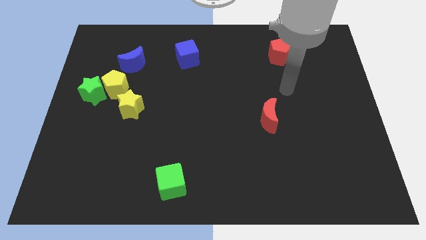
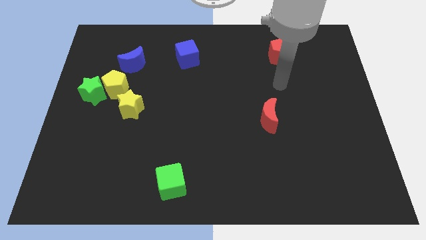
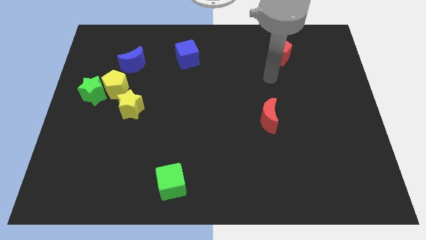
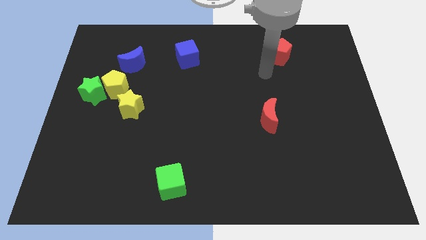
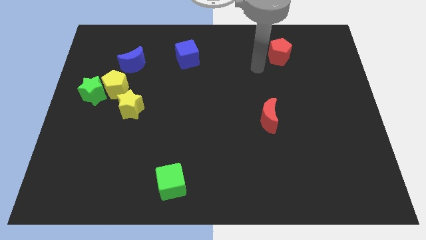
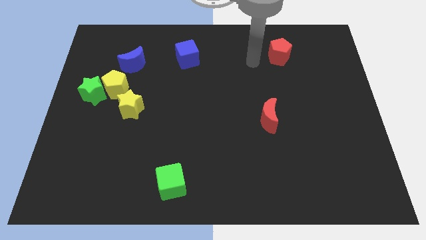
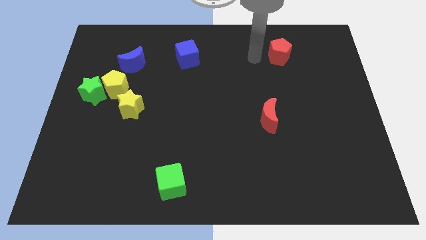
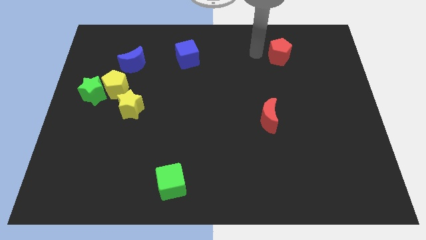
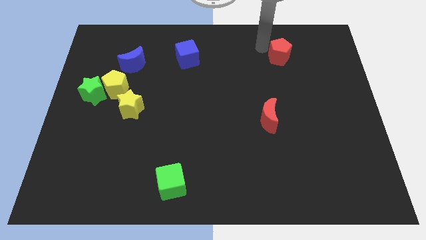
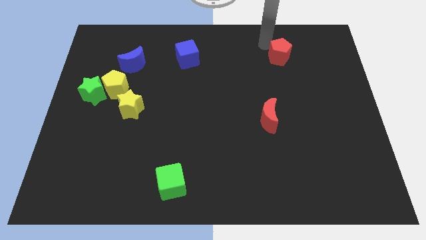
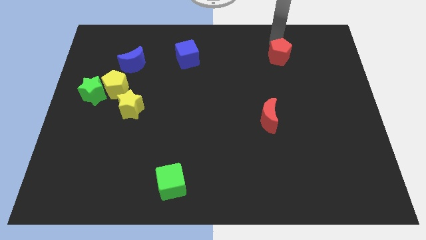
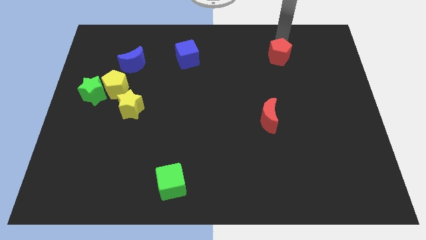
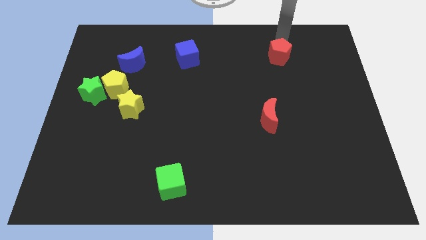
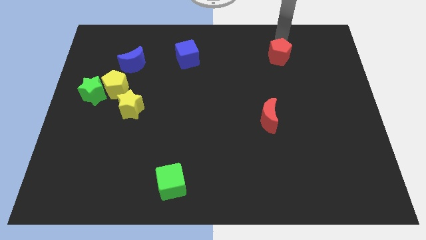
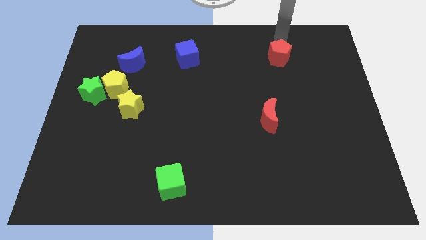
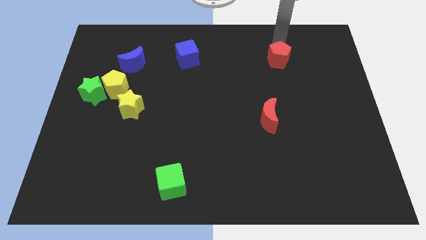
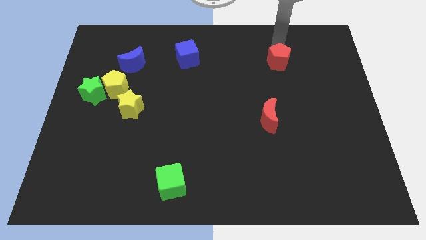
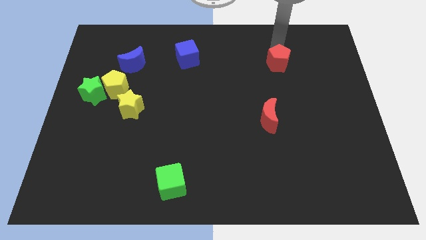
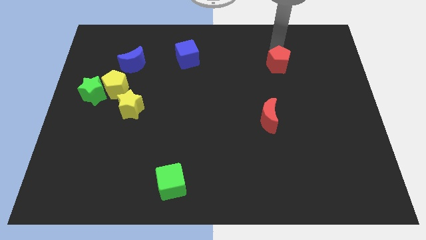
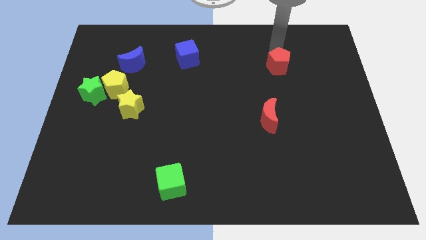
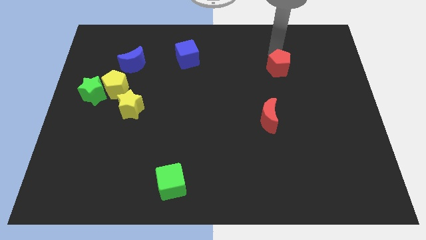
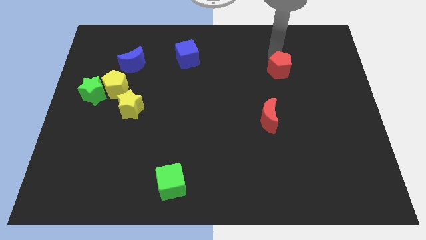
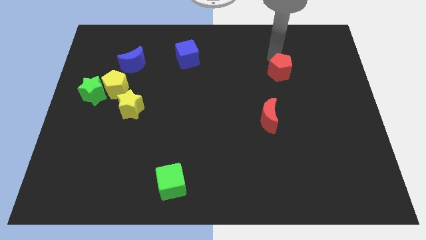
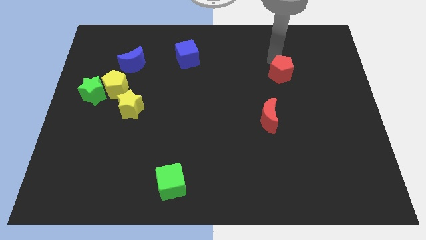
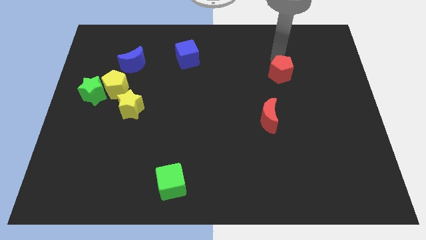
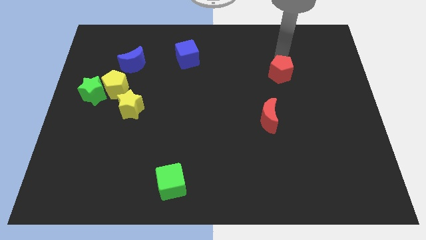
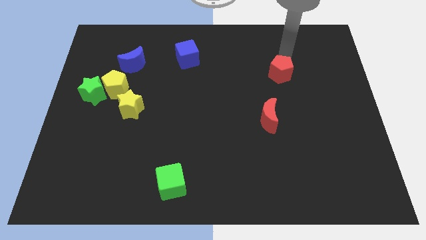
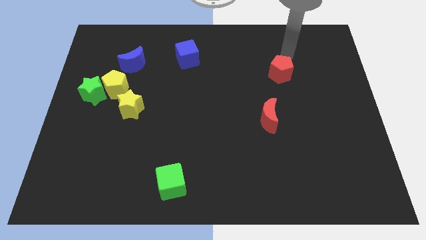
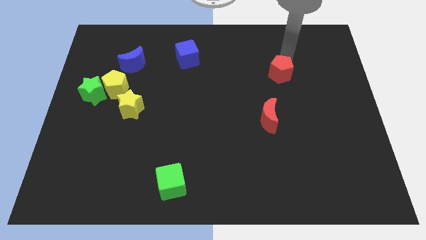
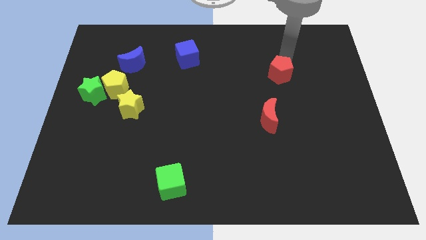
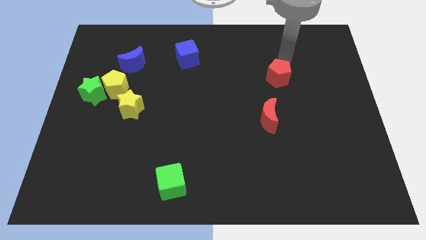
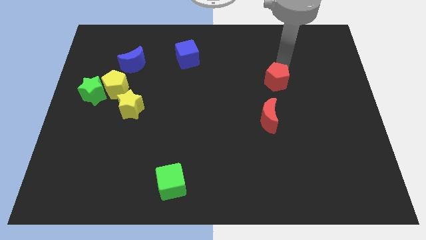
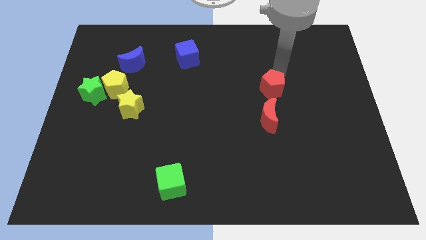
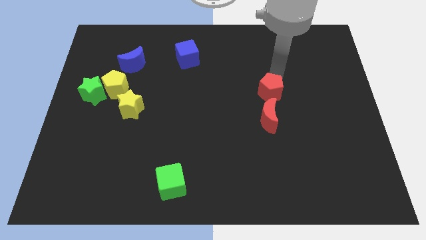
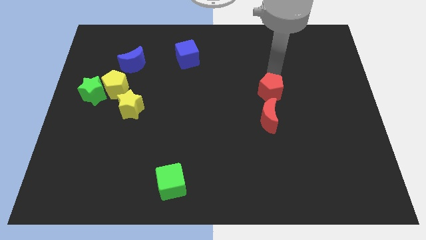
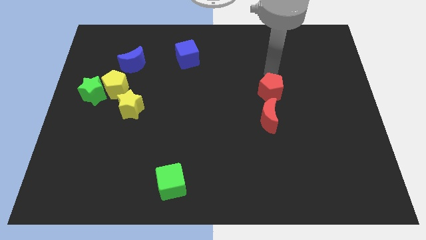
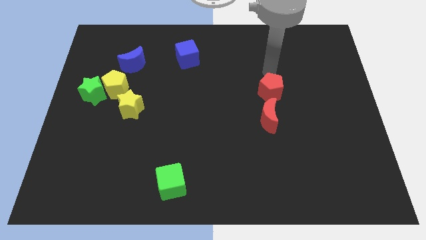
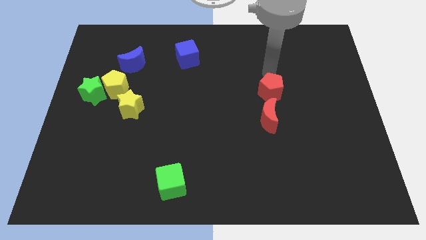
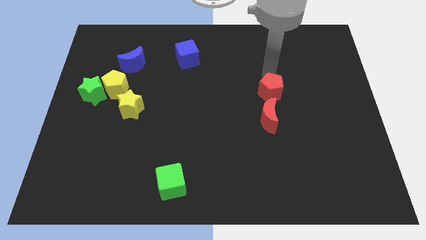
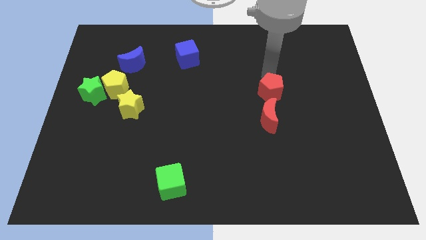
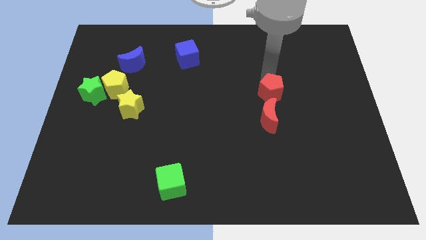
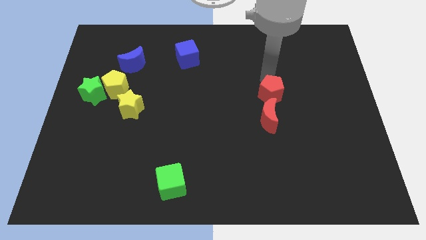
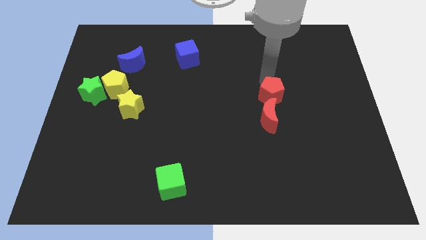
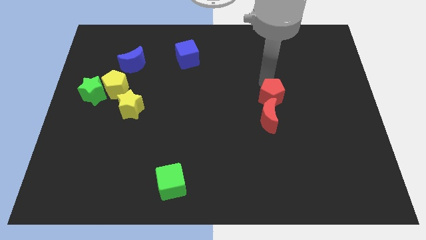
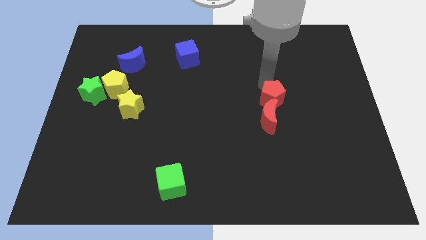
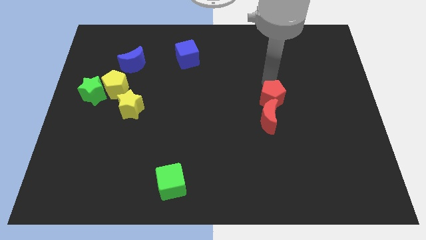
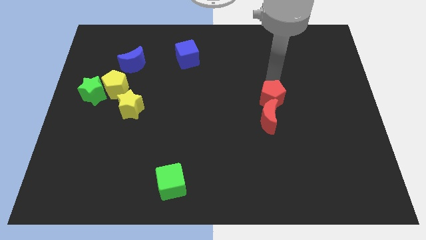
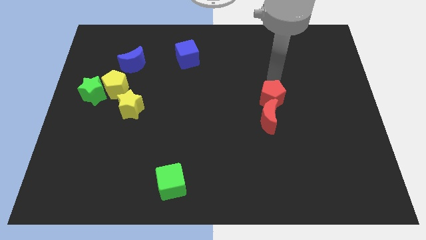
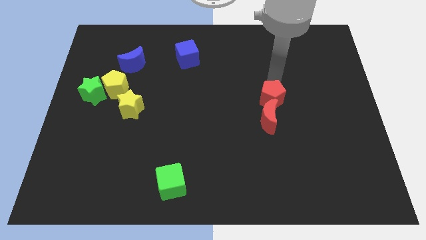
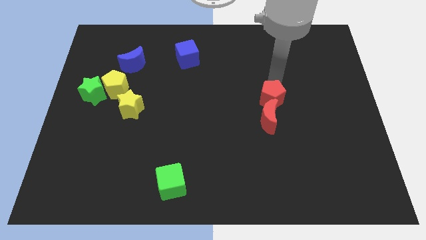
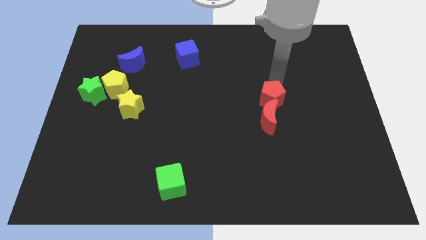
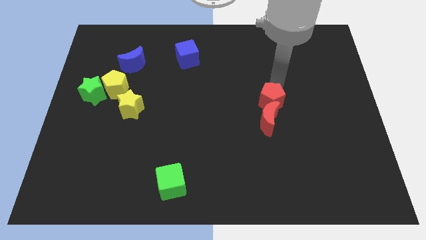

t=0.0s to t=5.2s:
put the red pentagon towards the red moon

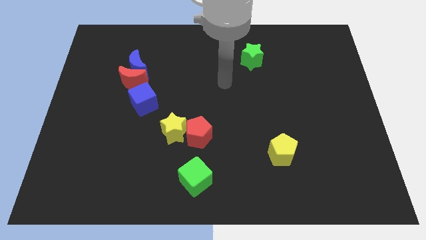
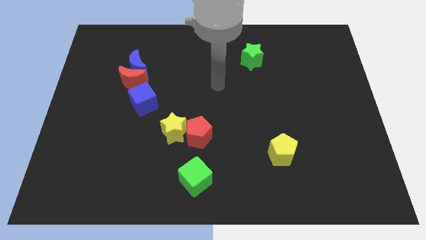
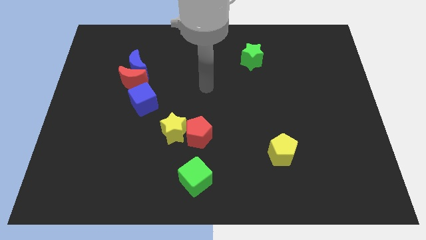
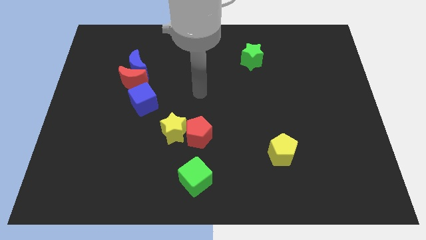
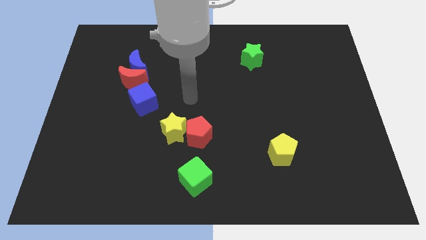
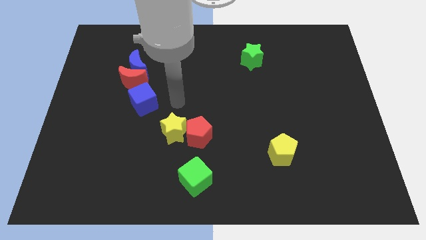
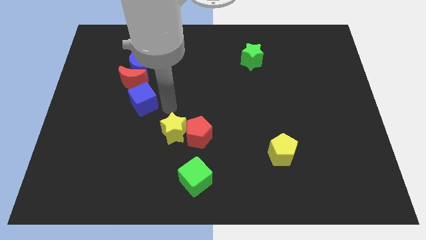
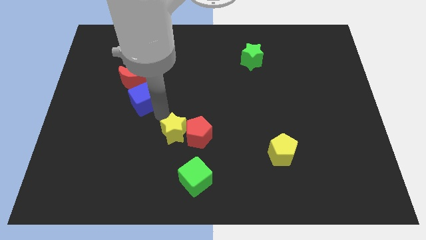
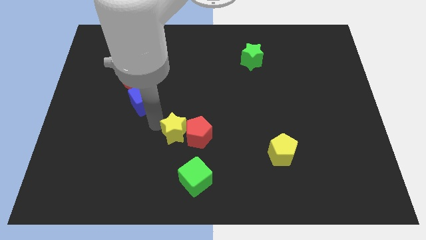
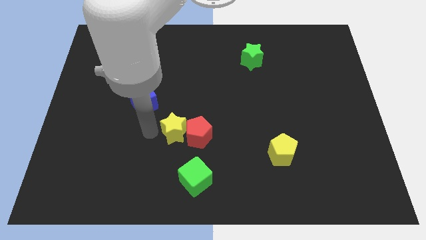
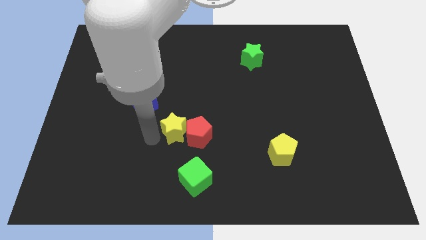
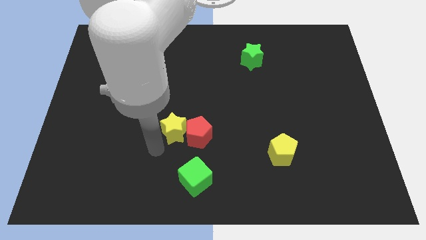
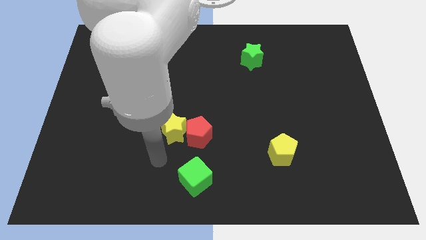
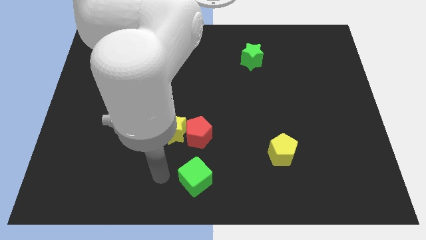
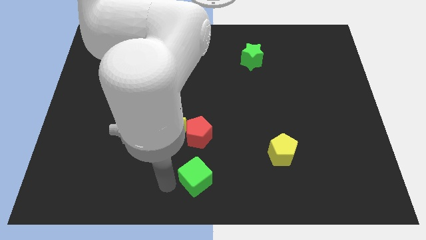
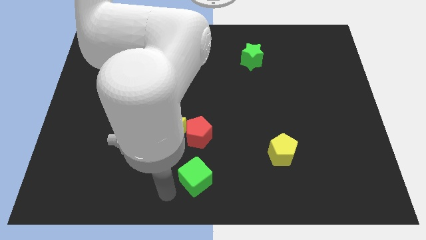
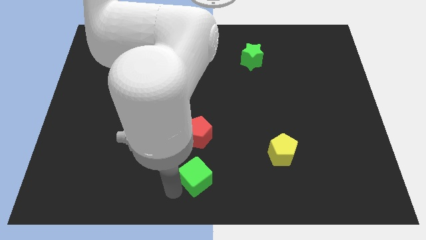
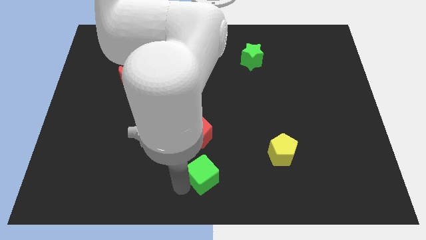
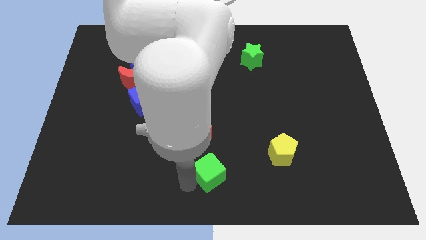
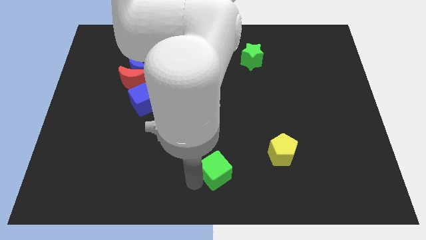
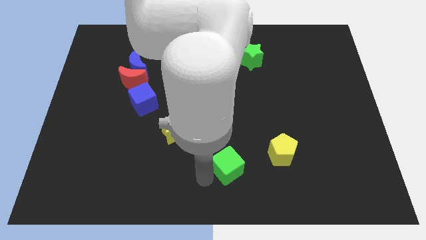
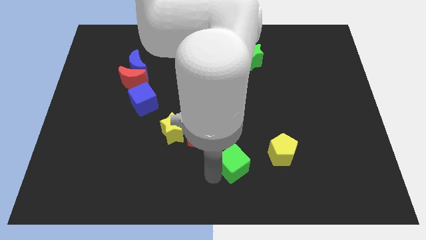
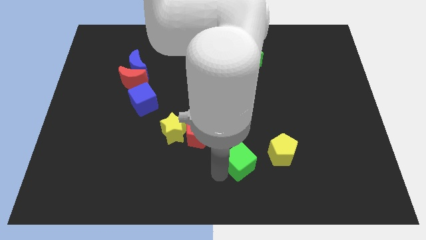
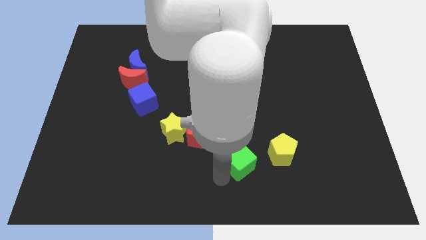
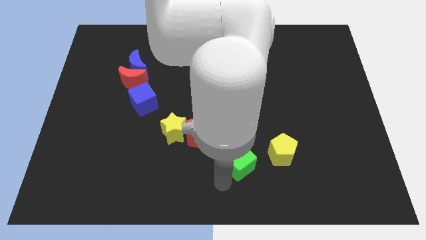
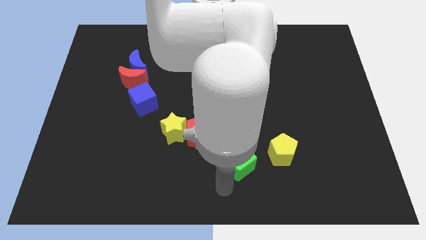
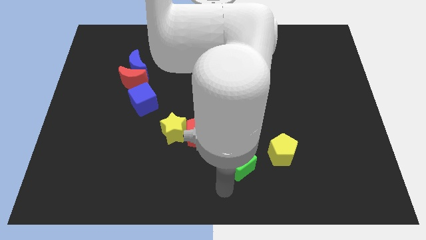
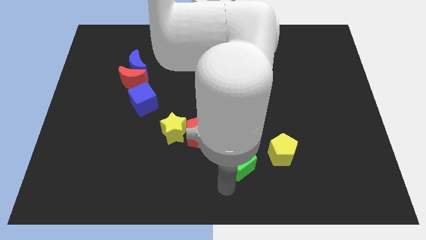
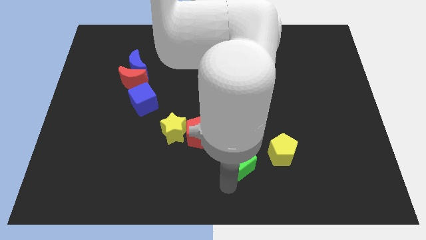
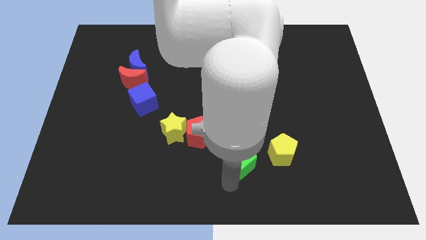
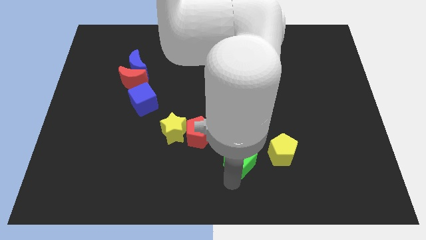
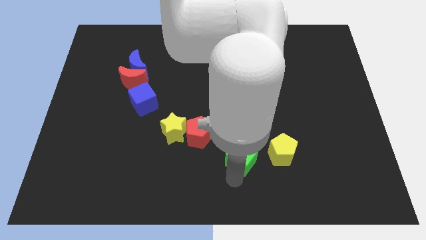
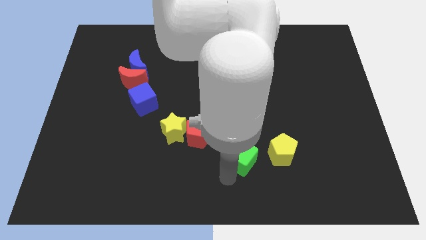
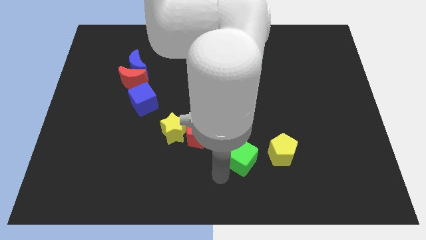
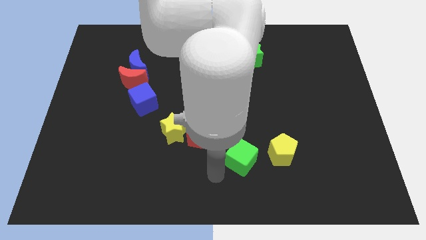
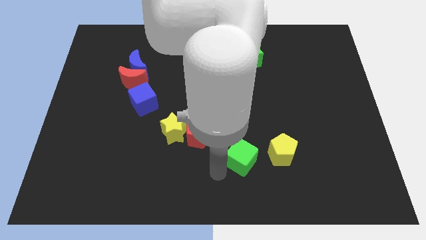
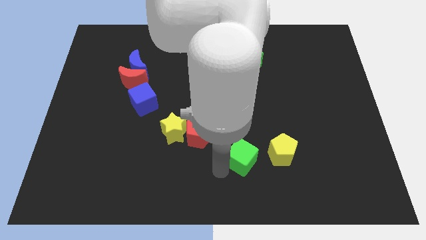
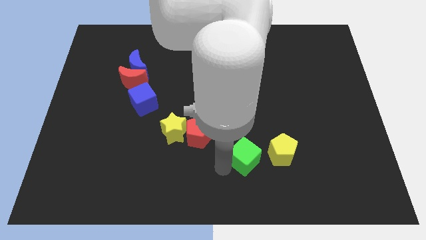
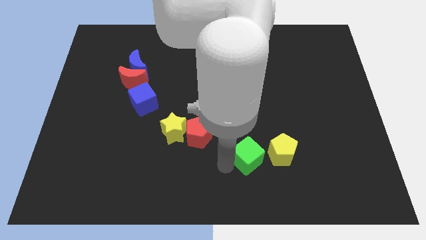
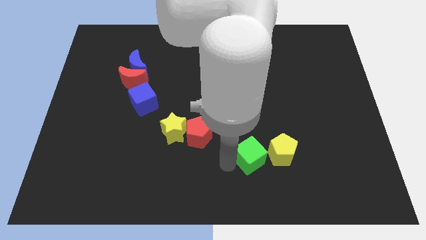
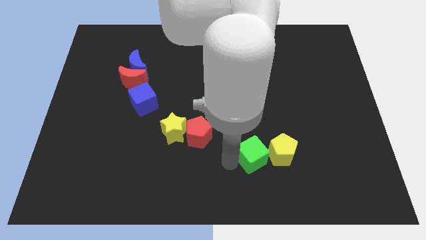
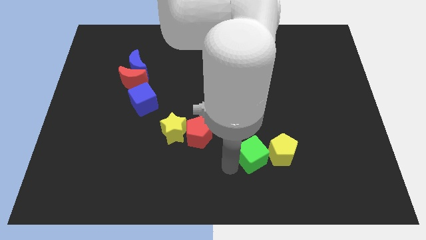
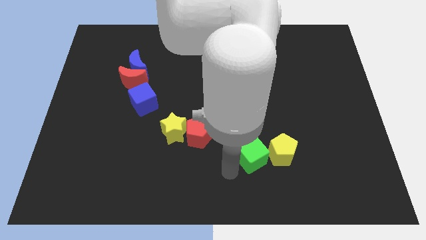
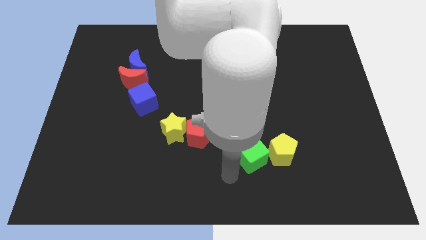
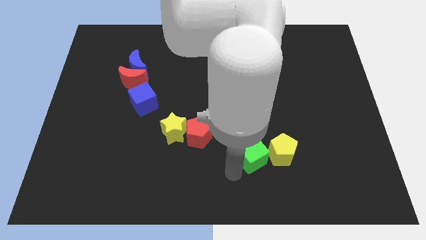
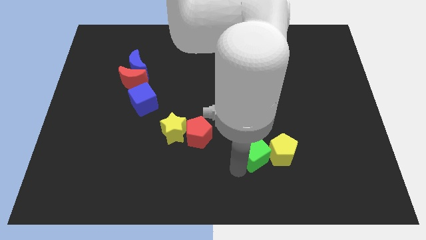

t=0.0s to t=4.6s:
push the green cube to the yellow pentagon
